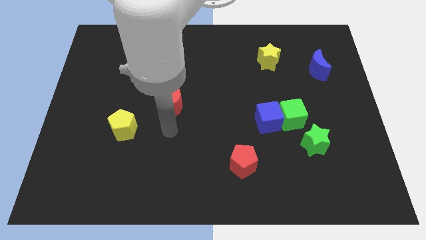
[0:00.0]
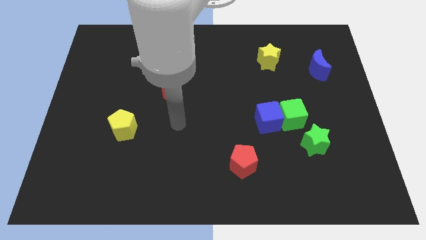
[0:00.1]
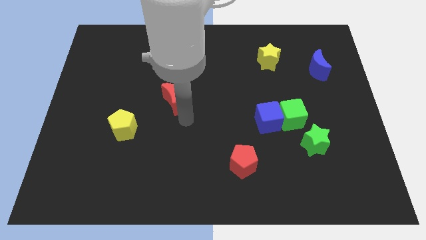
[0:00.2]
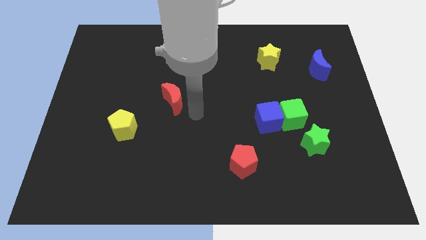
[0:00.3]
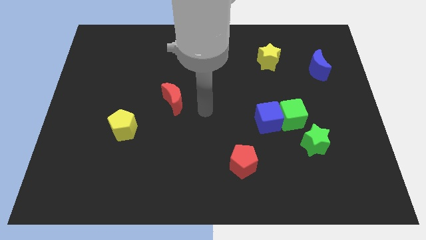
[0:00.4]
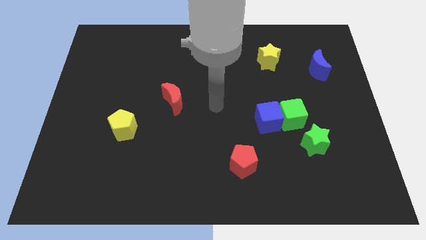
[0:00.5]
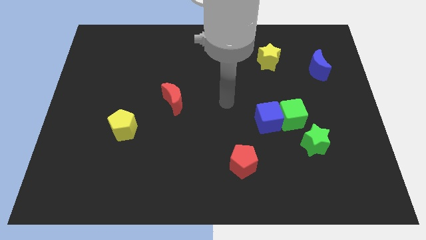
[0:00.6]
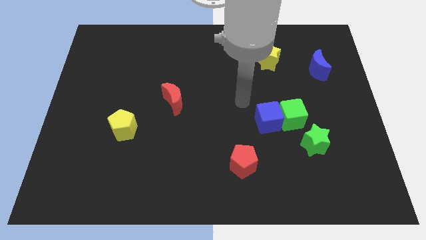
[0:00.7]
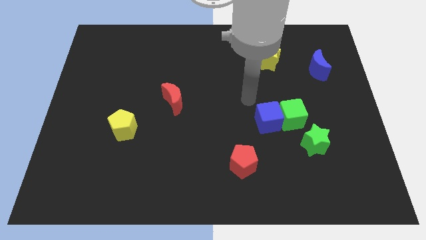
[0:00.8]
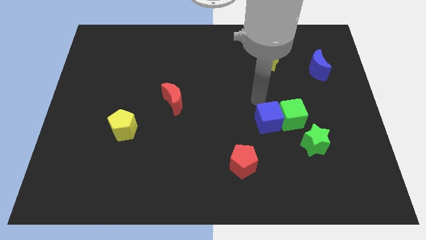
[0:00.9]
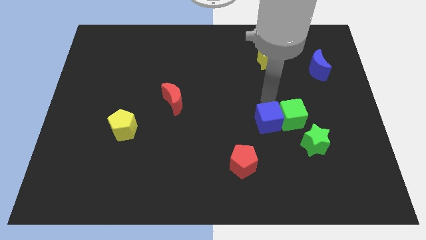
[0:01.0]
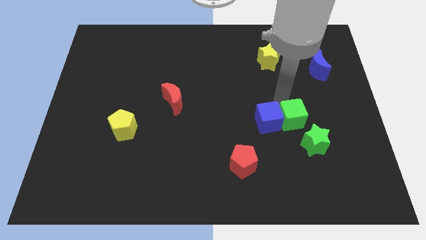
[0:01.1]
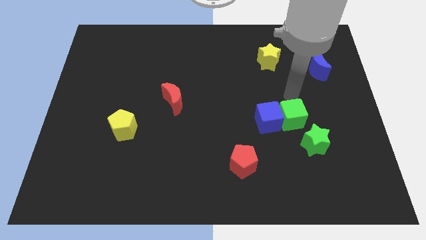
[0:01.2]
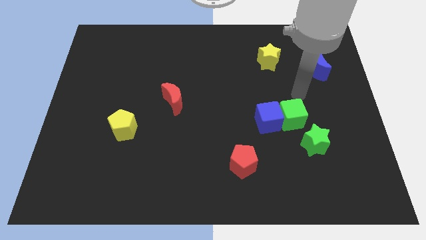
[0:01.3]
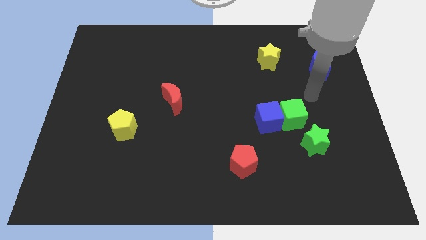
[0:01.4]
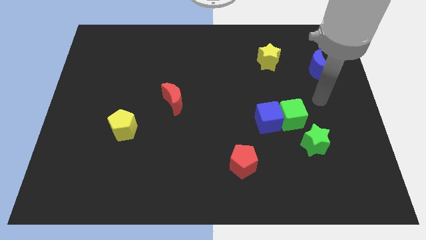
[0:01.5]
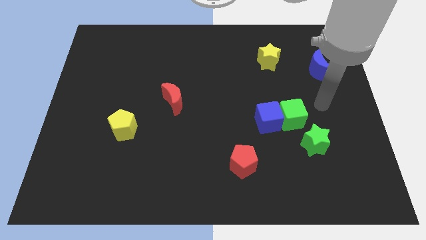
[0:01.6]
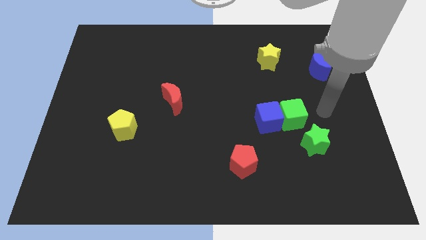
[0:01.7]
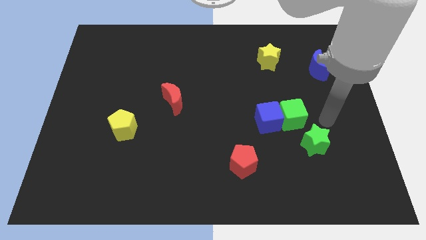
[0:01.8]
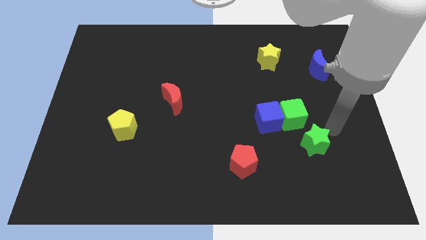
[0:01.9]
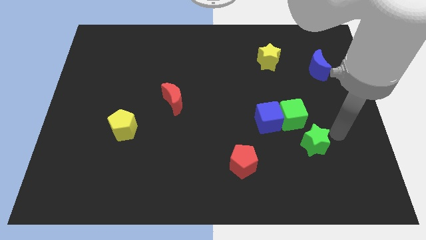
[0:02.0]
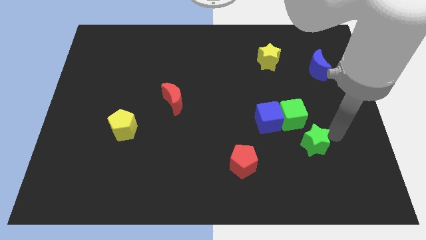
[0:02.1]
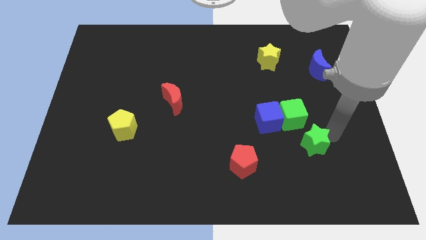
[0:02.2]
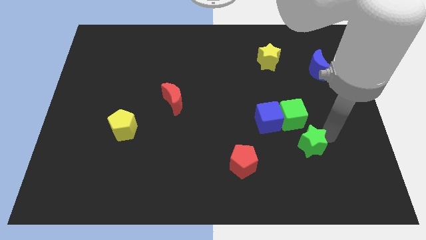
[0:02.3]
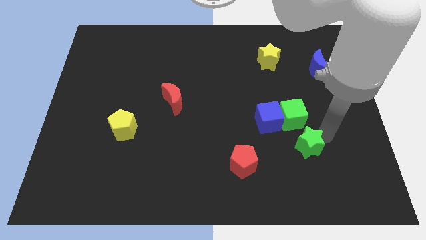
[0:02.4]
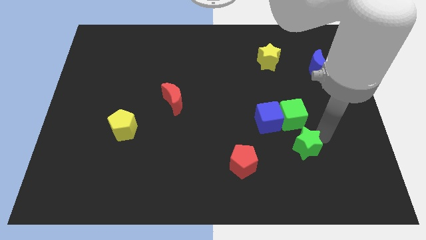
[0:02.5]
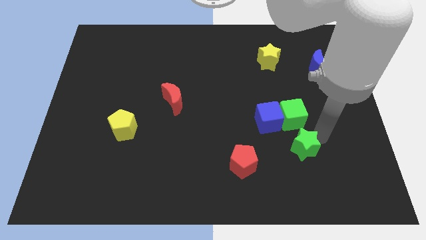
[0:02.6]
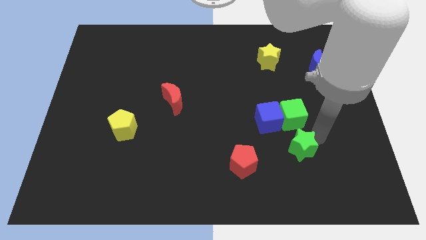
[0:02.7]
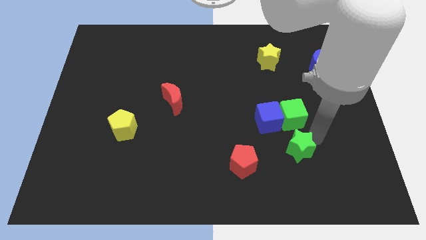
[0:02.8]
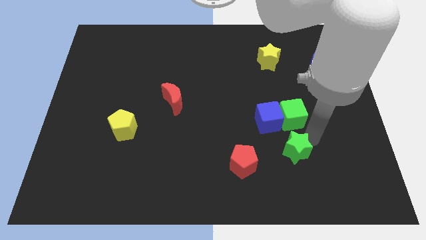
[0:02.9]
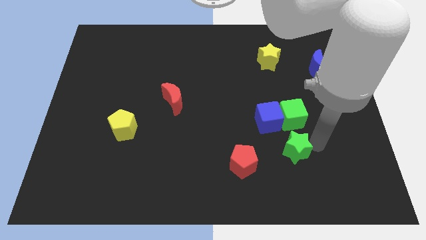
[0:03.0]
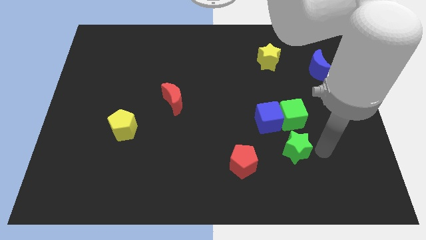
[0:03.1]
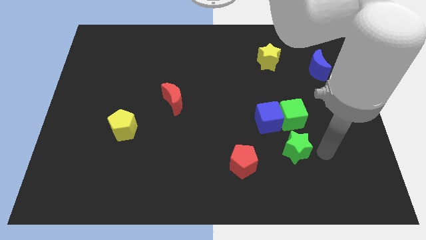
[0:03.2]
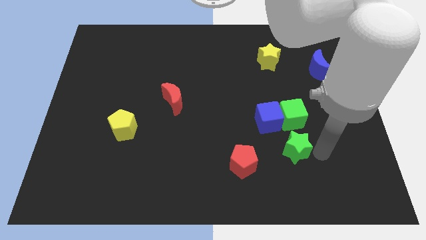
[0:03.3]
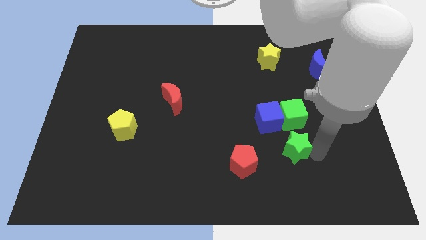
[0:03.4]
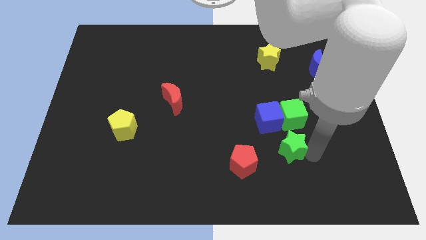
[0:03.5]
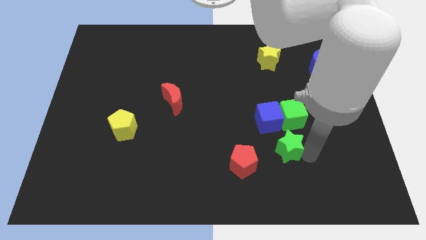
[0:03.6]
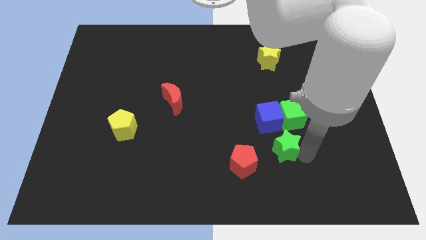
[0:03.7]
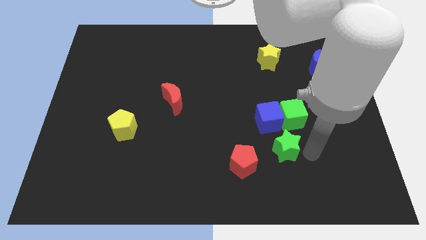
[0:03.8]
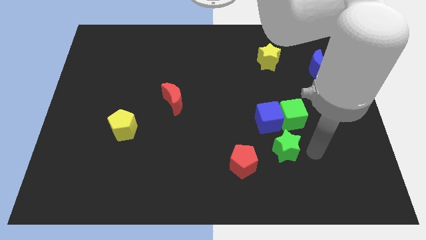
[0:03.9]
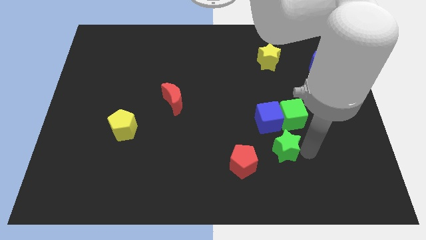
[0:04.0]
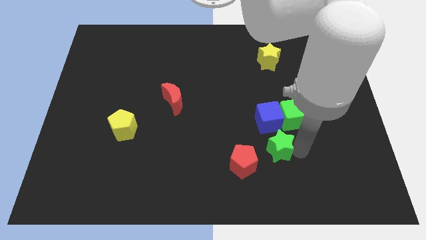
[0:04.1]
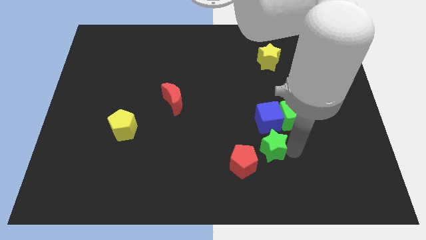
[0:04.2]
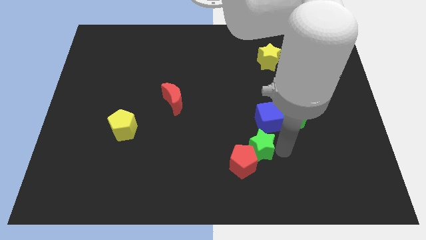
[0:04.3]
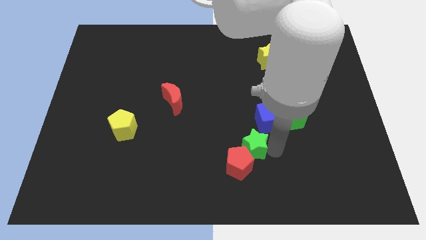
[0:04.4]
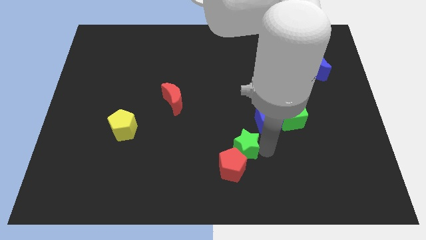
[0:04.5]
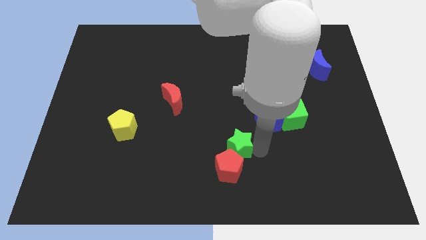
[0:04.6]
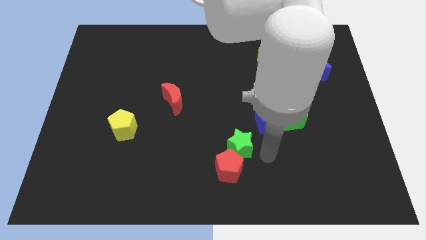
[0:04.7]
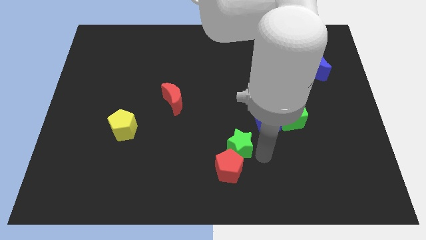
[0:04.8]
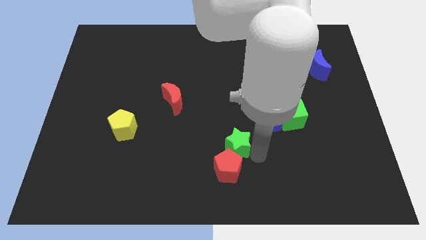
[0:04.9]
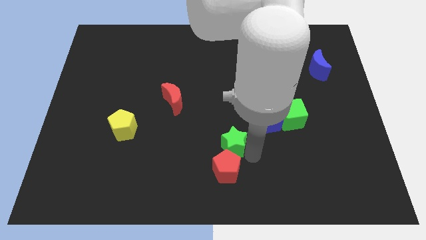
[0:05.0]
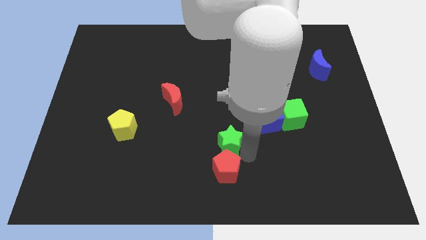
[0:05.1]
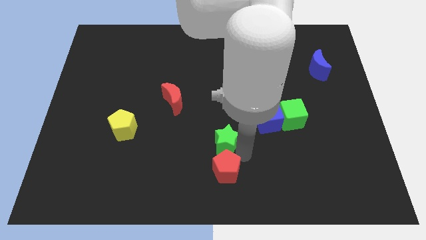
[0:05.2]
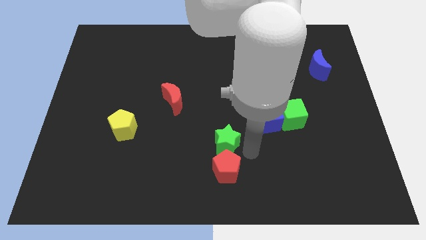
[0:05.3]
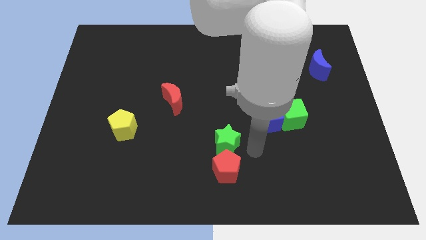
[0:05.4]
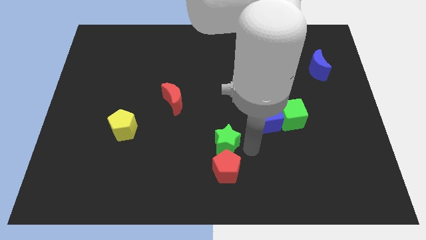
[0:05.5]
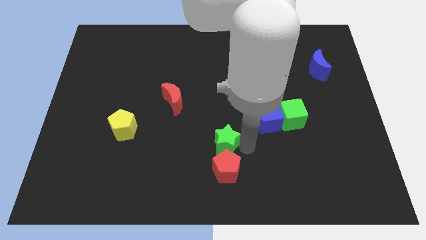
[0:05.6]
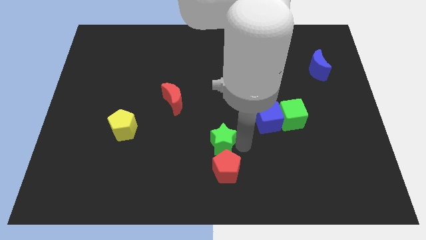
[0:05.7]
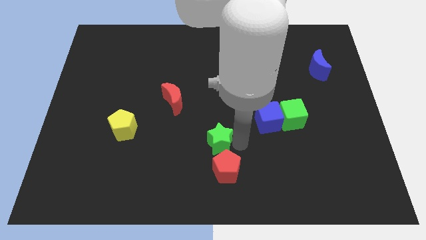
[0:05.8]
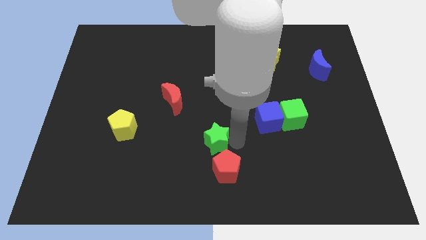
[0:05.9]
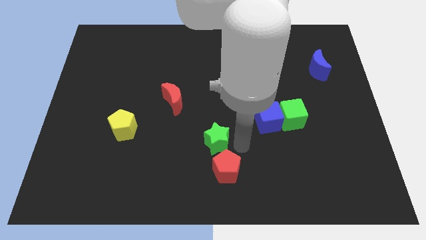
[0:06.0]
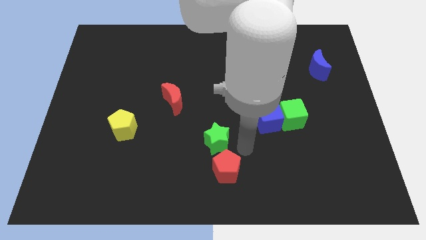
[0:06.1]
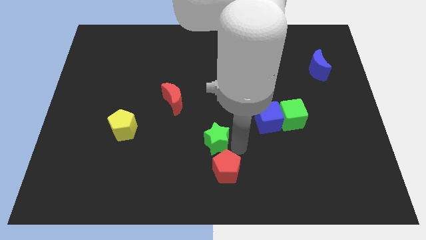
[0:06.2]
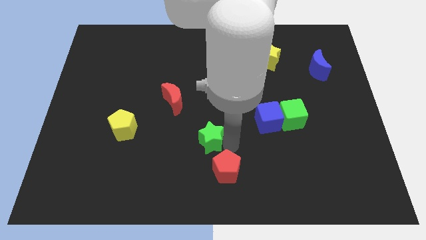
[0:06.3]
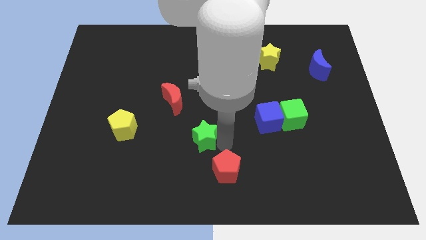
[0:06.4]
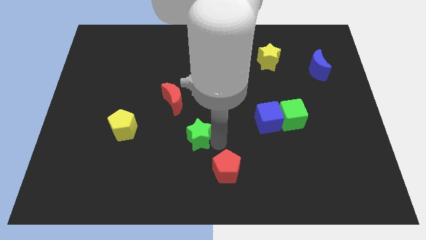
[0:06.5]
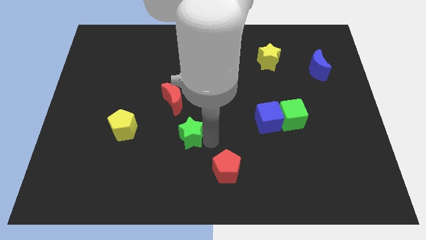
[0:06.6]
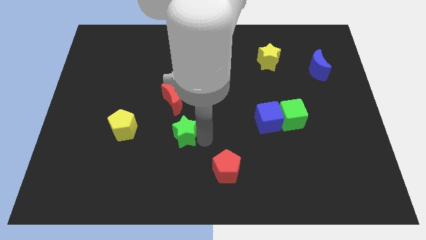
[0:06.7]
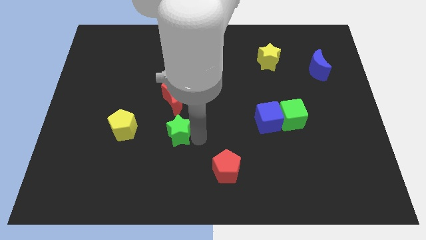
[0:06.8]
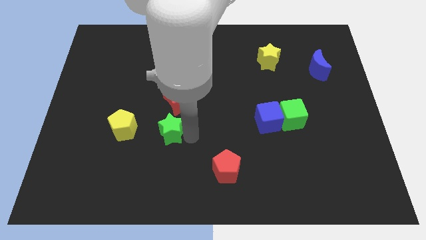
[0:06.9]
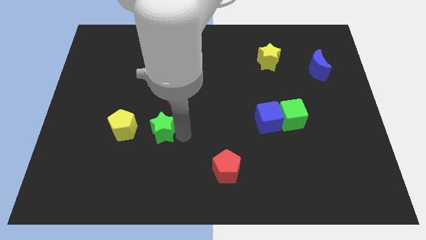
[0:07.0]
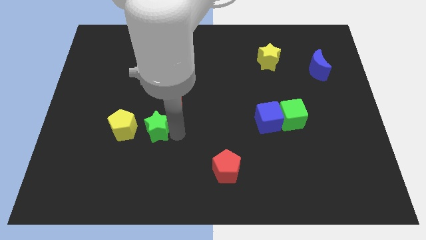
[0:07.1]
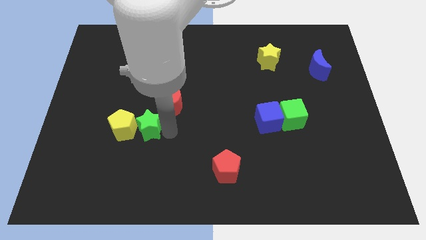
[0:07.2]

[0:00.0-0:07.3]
push the green star to the yellow pentagon

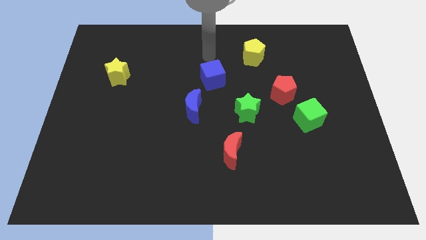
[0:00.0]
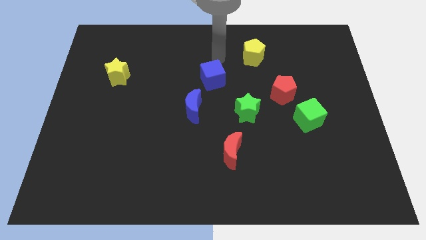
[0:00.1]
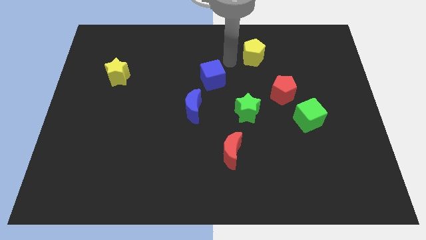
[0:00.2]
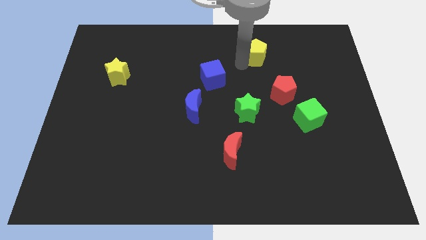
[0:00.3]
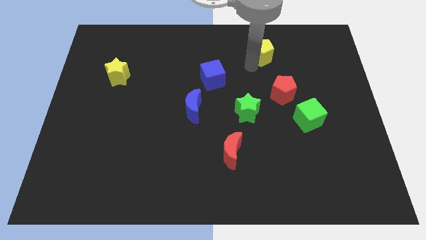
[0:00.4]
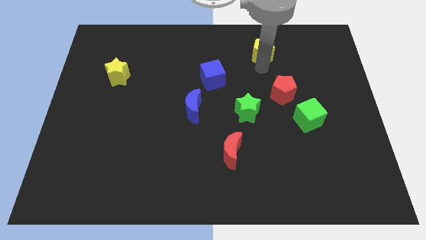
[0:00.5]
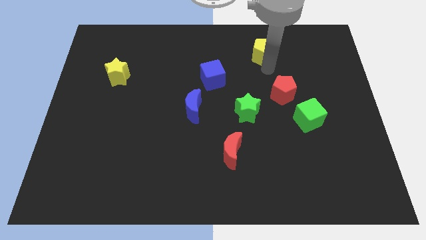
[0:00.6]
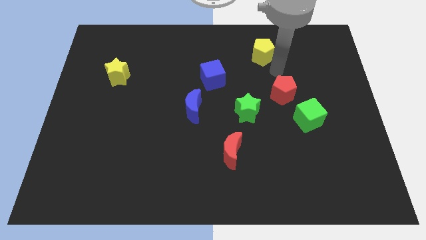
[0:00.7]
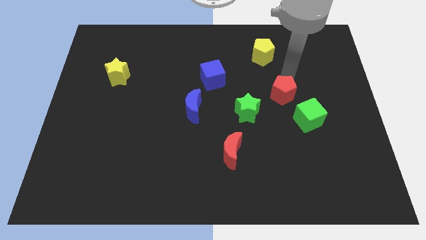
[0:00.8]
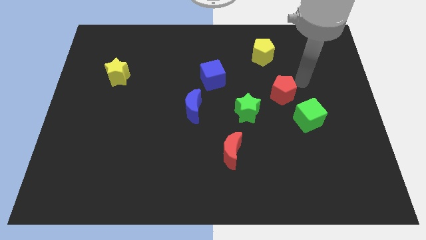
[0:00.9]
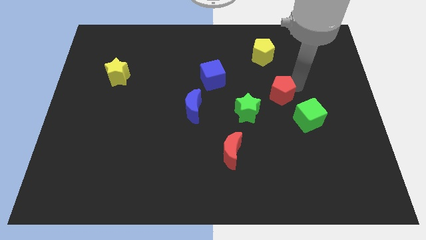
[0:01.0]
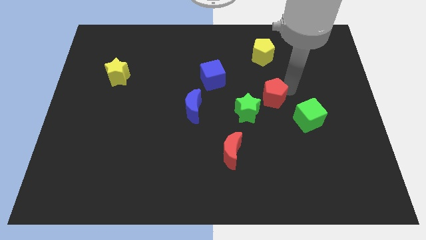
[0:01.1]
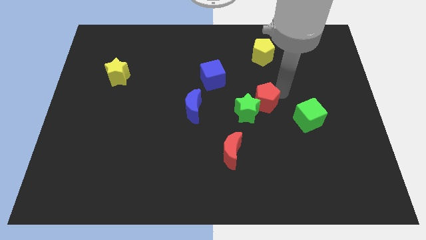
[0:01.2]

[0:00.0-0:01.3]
slide the red pentagon towards the green star
